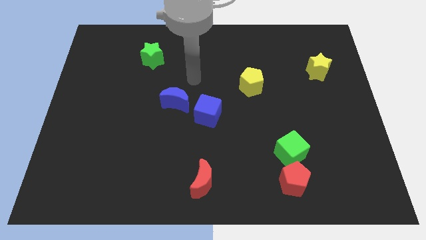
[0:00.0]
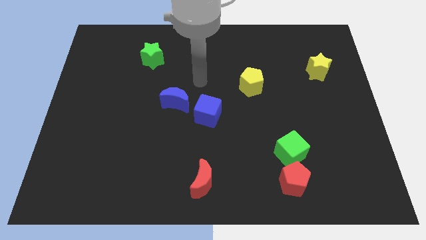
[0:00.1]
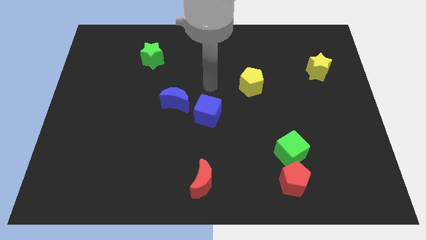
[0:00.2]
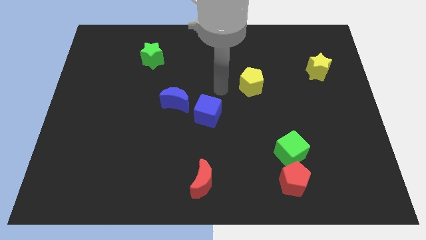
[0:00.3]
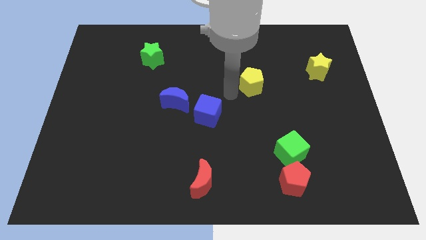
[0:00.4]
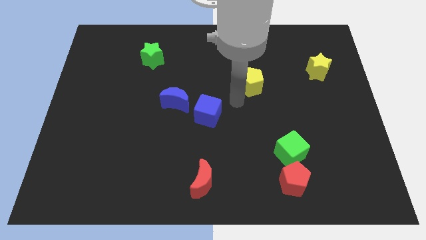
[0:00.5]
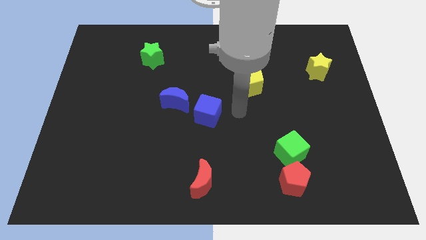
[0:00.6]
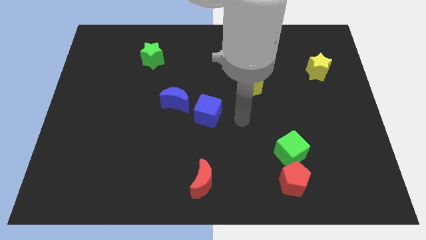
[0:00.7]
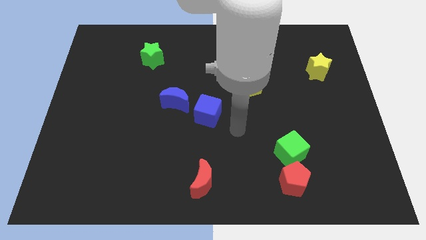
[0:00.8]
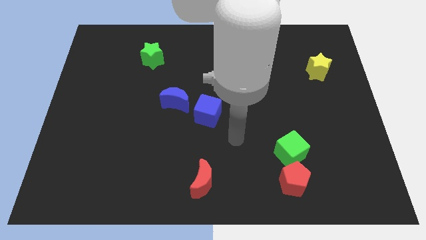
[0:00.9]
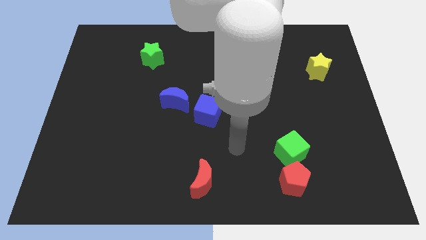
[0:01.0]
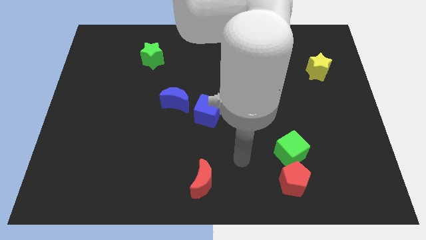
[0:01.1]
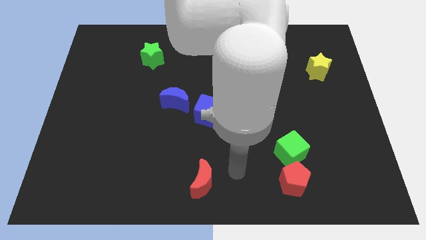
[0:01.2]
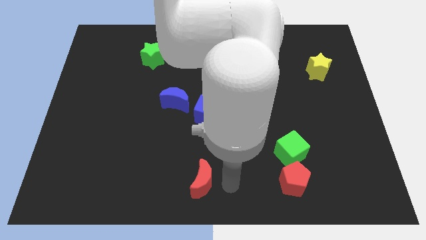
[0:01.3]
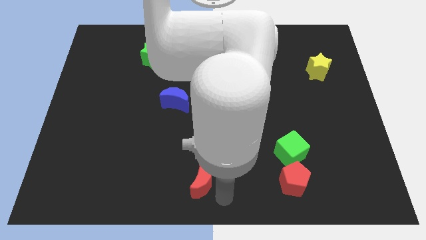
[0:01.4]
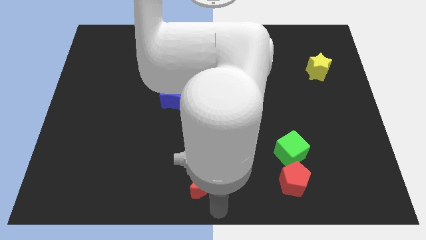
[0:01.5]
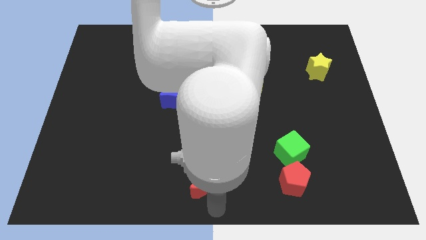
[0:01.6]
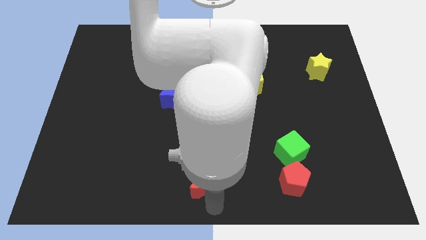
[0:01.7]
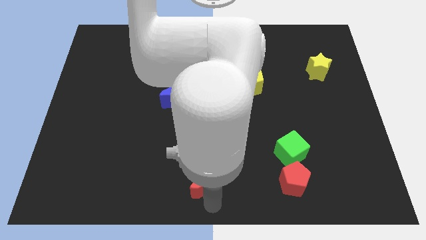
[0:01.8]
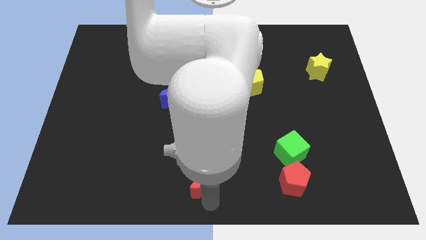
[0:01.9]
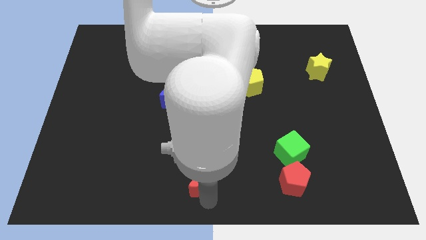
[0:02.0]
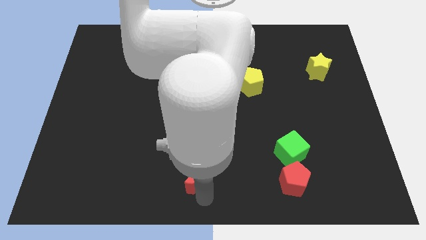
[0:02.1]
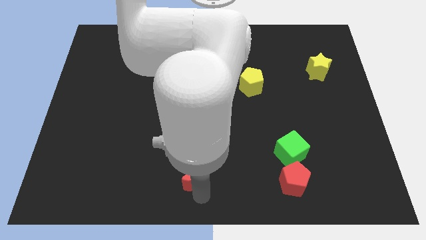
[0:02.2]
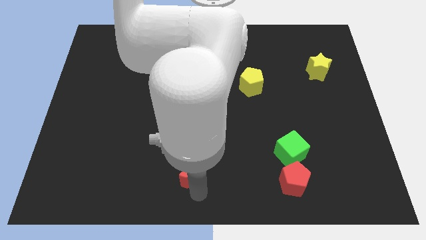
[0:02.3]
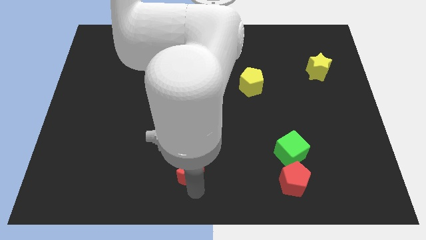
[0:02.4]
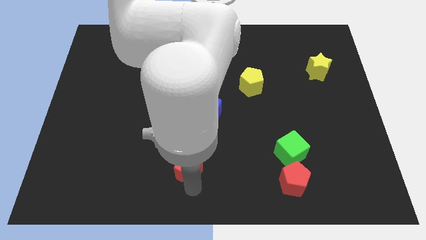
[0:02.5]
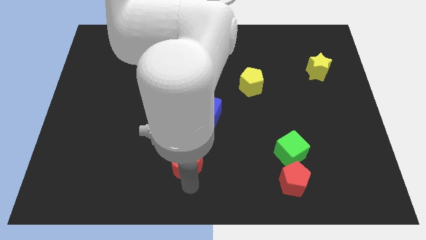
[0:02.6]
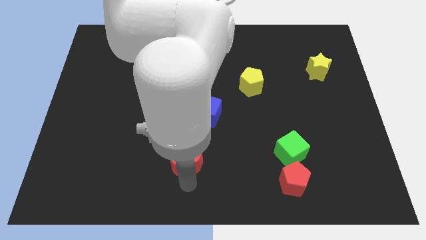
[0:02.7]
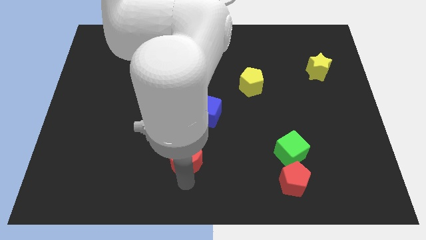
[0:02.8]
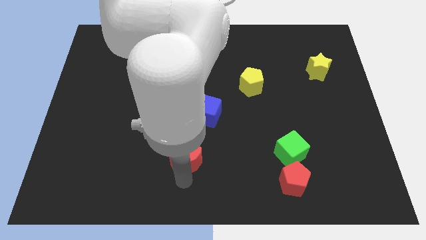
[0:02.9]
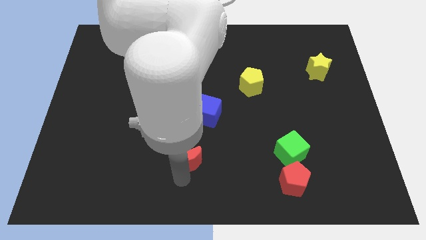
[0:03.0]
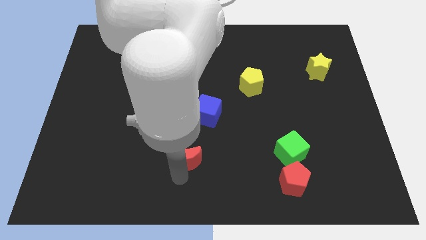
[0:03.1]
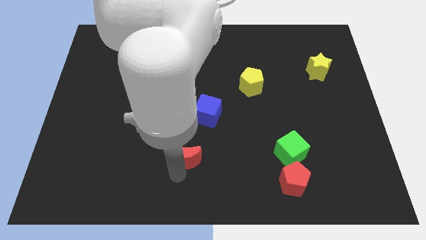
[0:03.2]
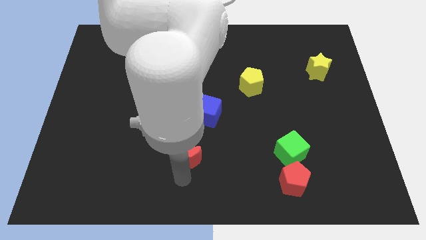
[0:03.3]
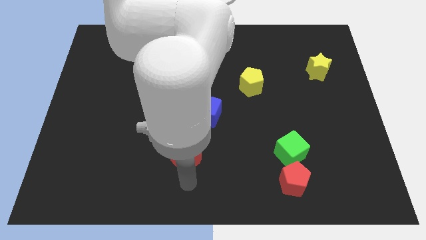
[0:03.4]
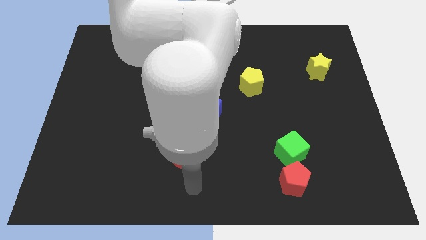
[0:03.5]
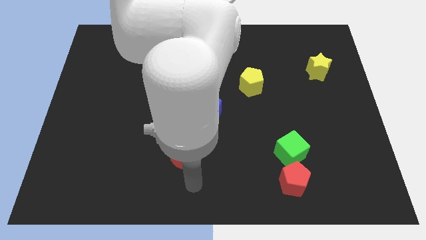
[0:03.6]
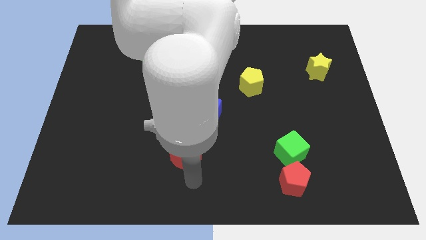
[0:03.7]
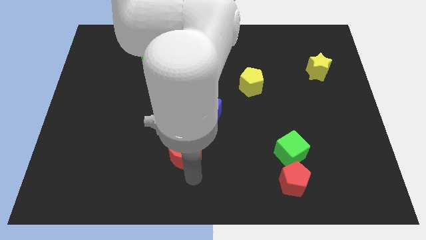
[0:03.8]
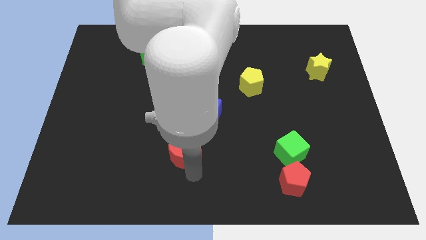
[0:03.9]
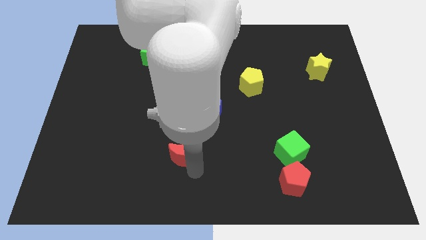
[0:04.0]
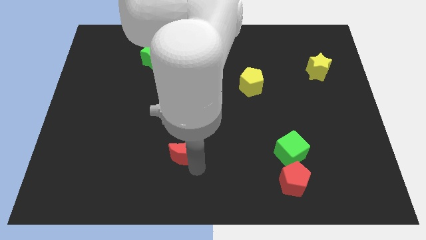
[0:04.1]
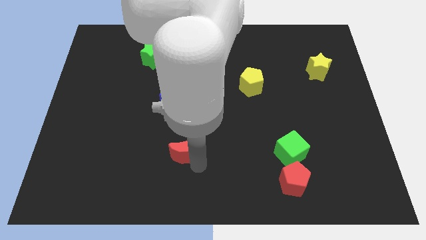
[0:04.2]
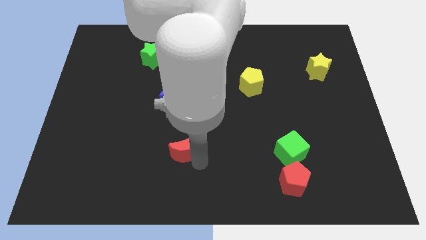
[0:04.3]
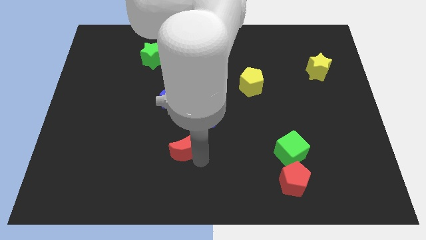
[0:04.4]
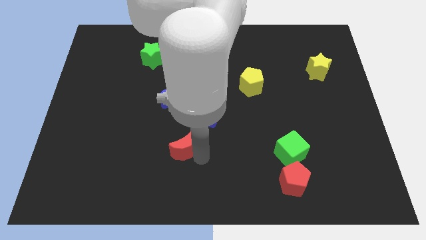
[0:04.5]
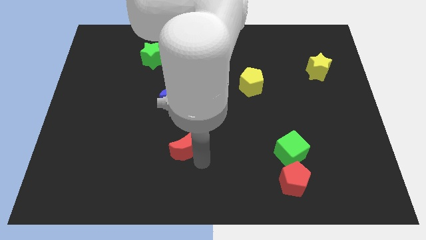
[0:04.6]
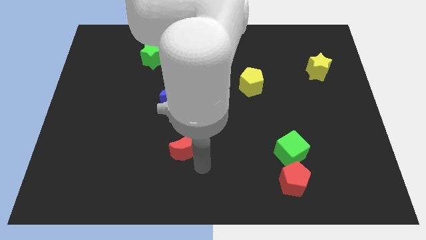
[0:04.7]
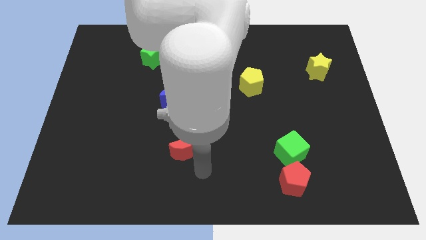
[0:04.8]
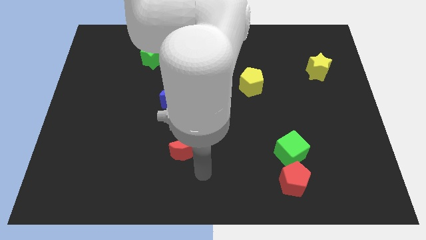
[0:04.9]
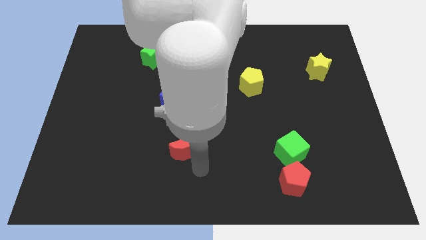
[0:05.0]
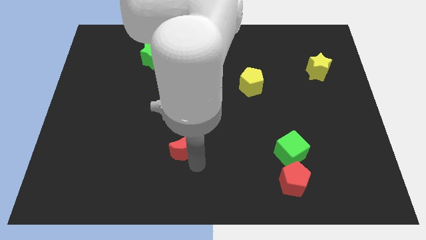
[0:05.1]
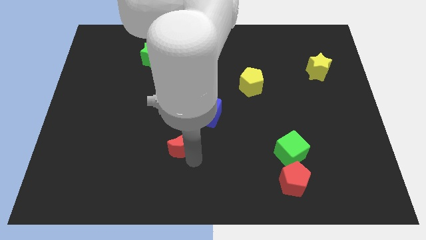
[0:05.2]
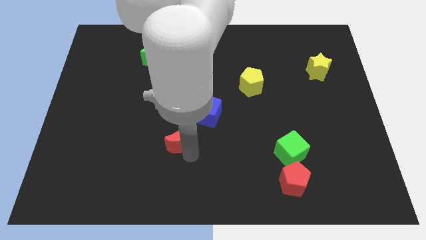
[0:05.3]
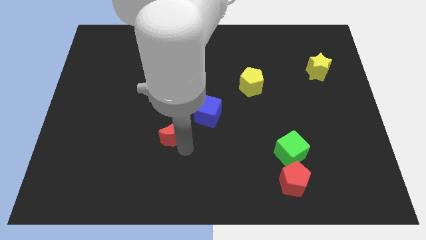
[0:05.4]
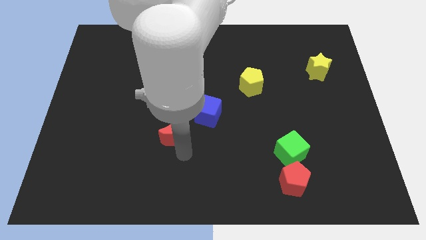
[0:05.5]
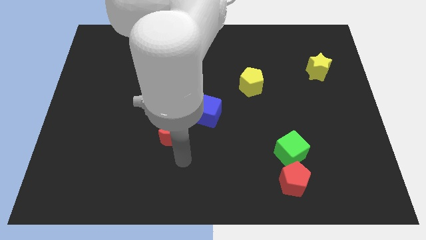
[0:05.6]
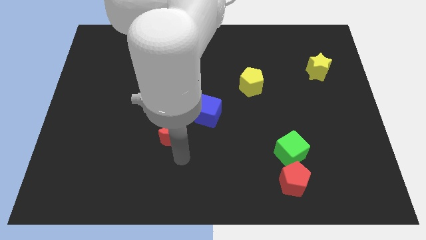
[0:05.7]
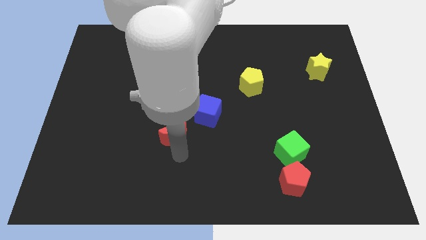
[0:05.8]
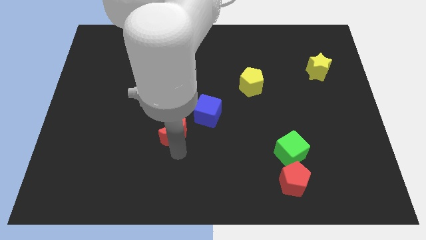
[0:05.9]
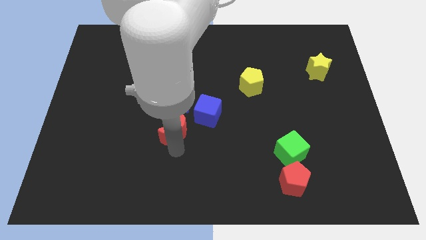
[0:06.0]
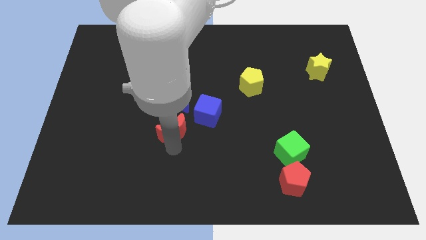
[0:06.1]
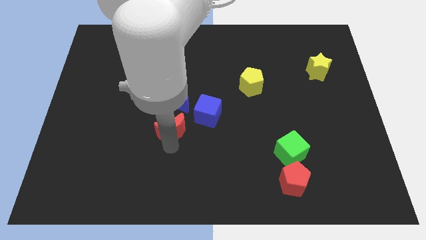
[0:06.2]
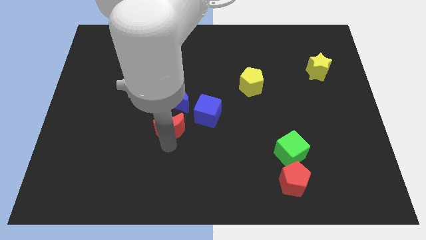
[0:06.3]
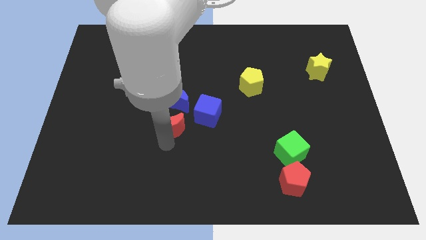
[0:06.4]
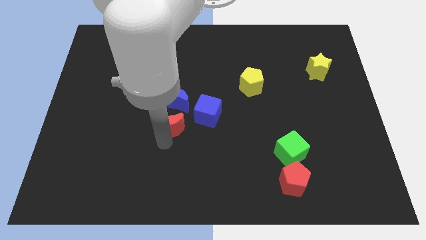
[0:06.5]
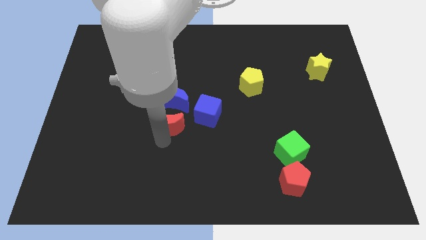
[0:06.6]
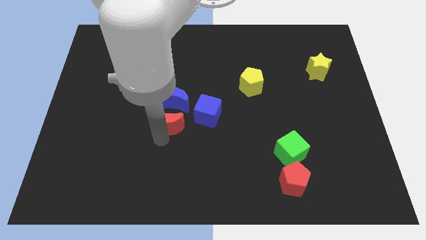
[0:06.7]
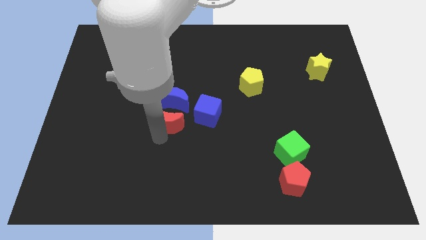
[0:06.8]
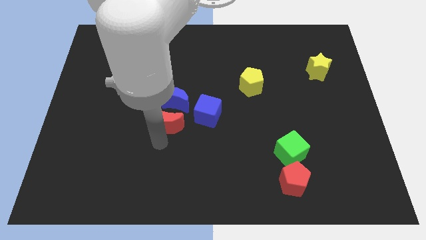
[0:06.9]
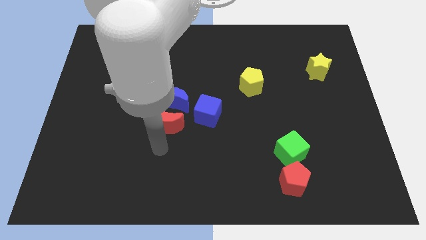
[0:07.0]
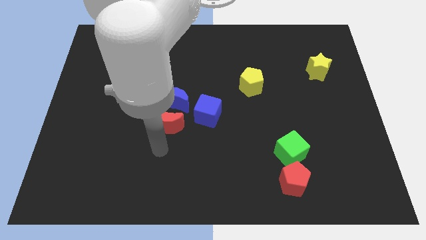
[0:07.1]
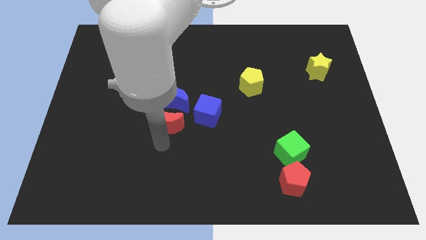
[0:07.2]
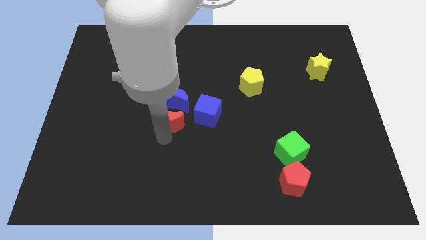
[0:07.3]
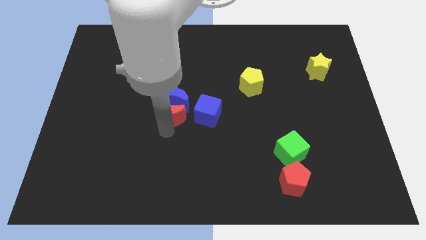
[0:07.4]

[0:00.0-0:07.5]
put the red moon close to the blue moon
